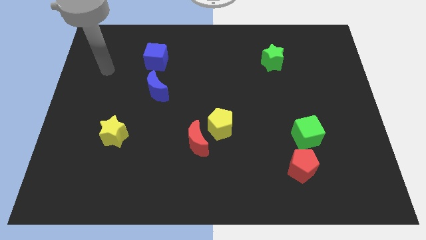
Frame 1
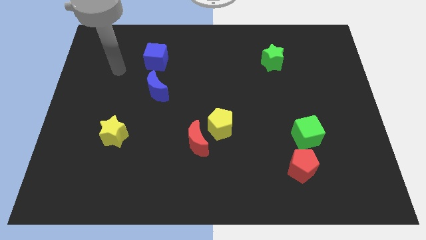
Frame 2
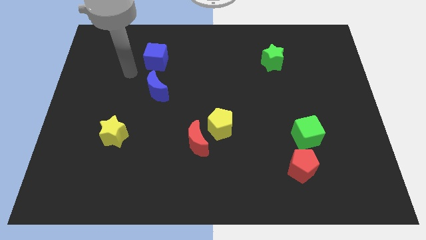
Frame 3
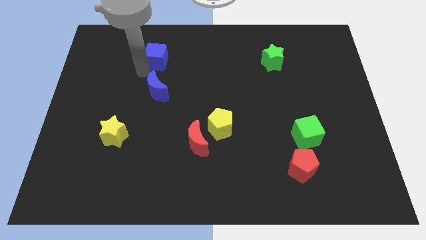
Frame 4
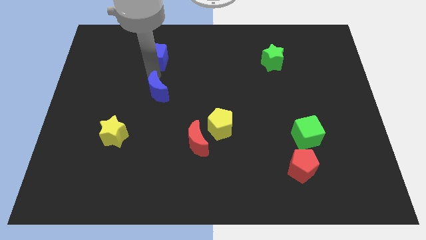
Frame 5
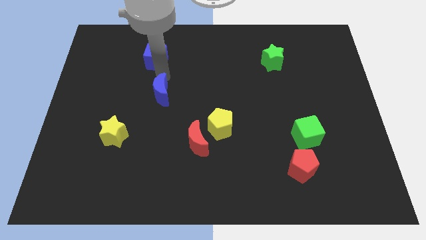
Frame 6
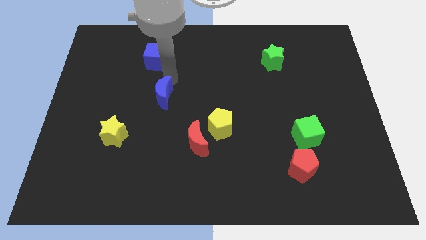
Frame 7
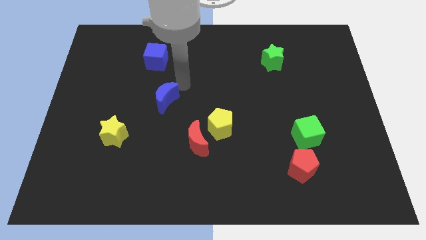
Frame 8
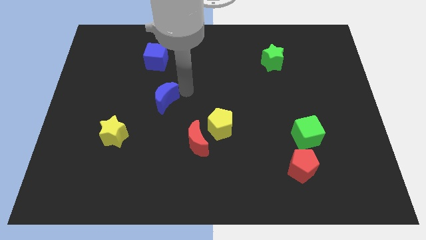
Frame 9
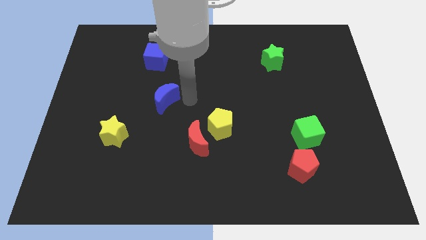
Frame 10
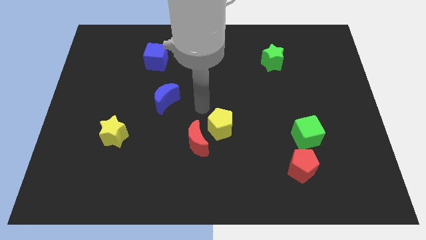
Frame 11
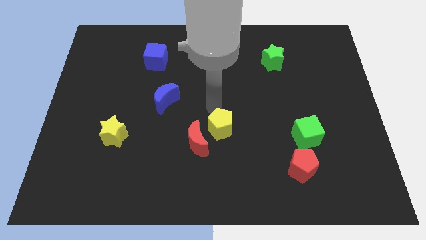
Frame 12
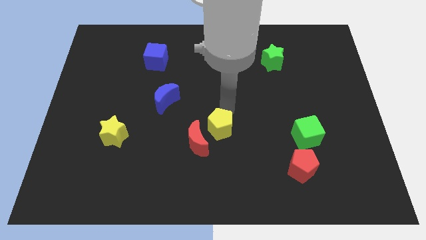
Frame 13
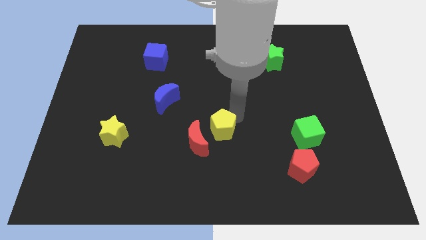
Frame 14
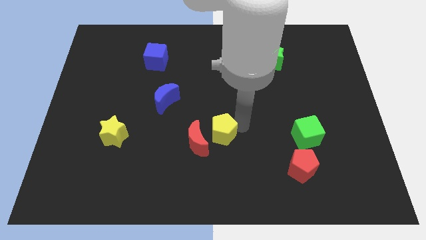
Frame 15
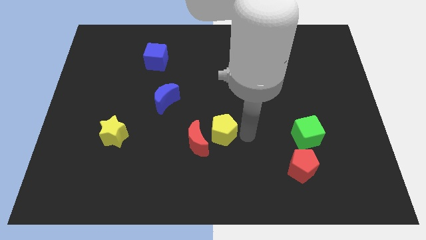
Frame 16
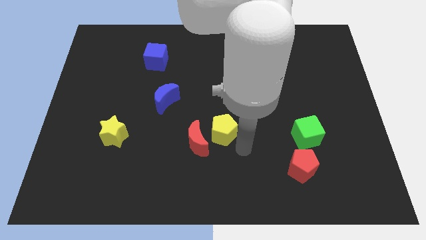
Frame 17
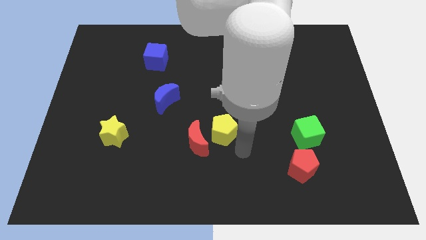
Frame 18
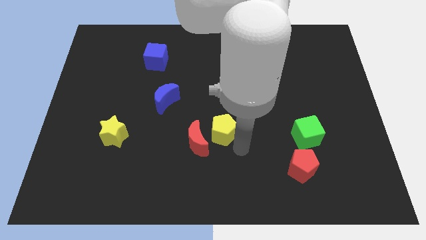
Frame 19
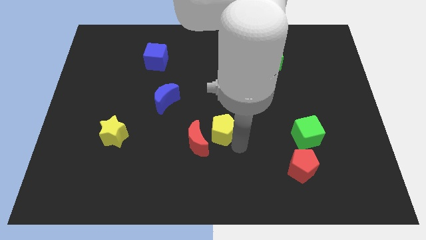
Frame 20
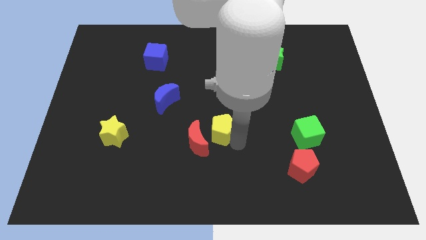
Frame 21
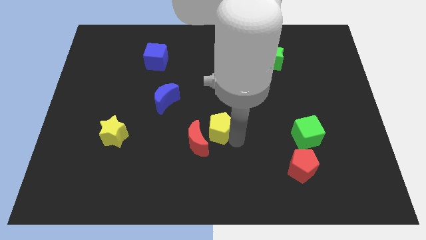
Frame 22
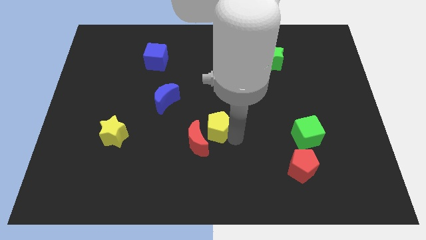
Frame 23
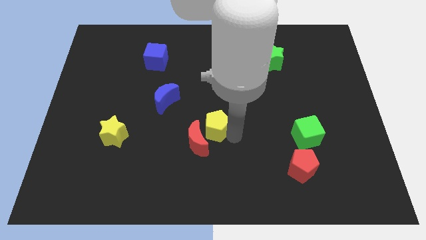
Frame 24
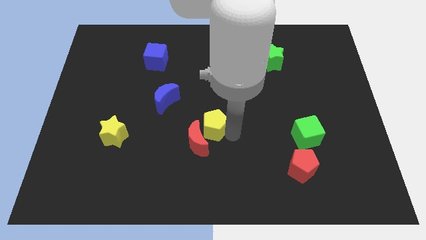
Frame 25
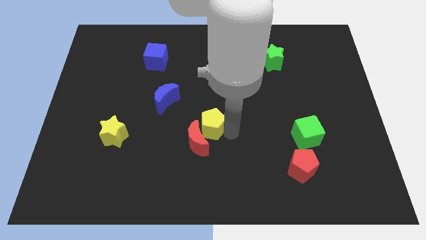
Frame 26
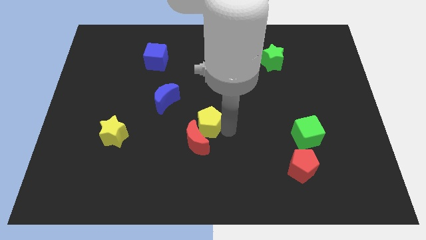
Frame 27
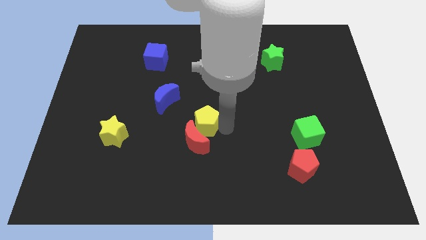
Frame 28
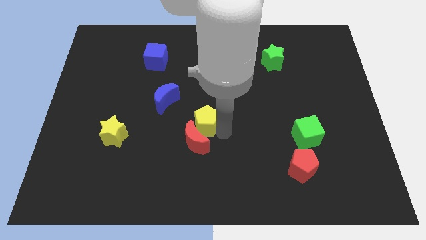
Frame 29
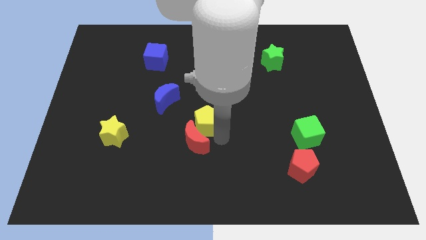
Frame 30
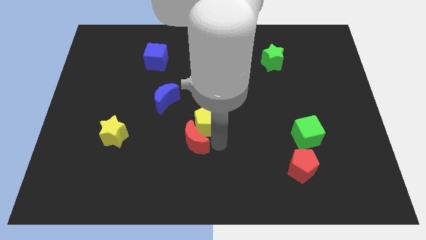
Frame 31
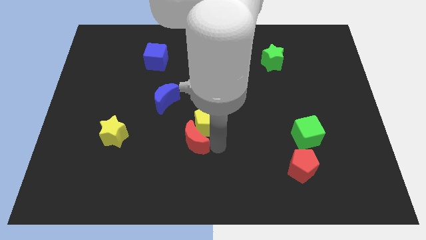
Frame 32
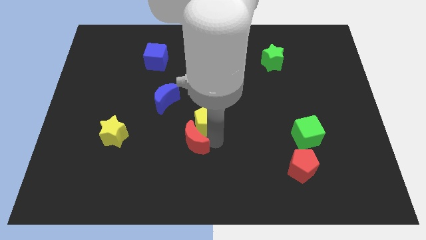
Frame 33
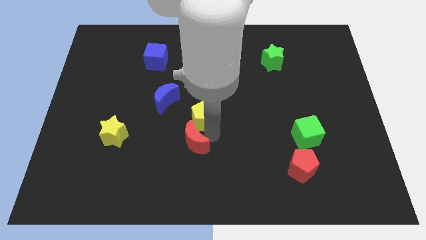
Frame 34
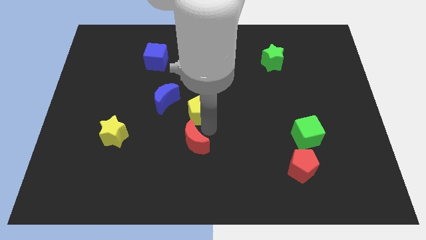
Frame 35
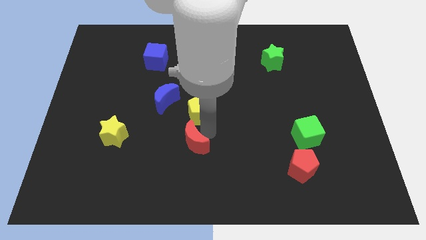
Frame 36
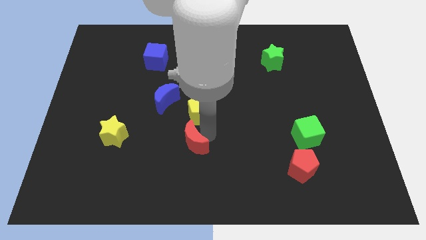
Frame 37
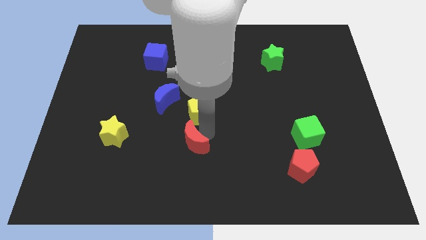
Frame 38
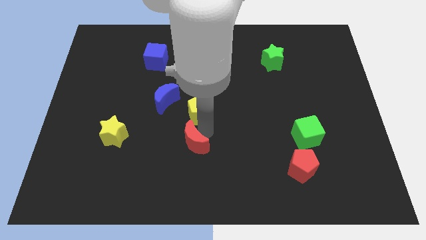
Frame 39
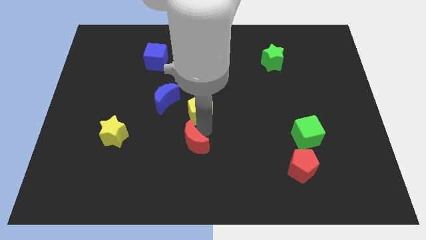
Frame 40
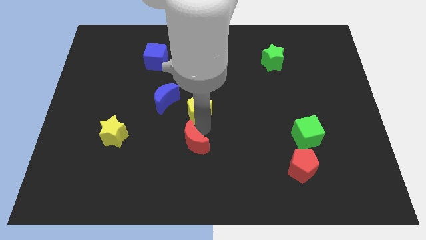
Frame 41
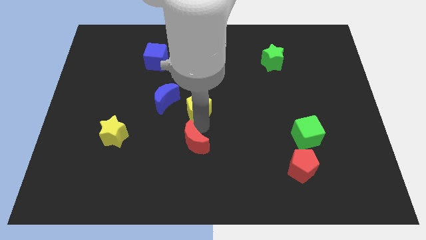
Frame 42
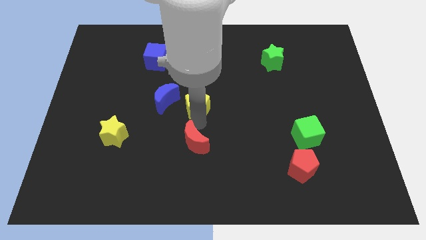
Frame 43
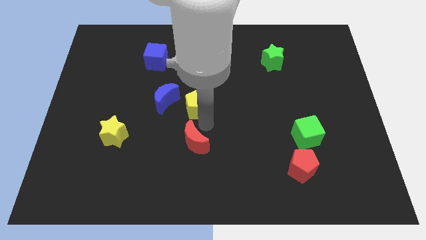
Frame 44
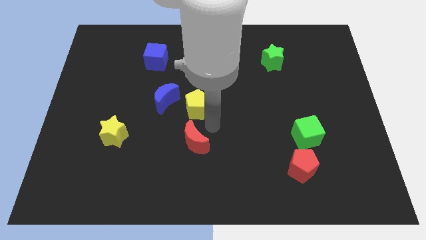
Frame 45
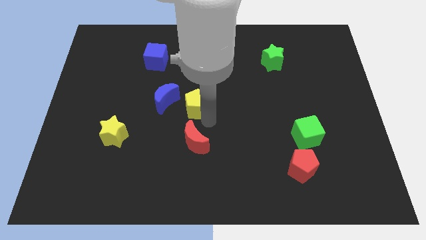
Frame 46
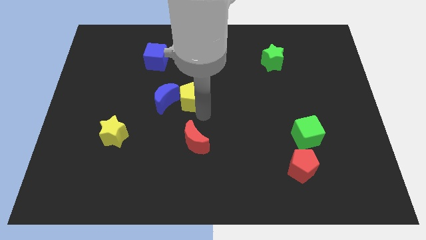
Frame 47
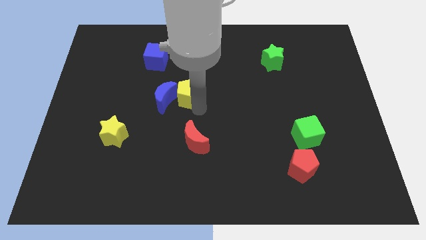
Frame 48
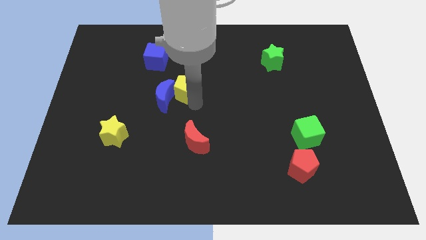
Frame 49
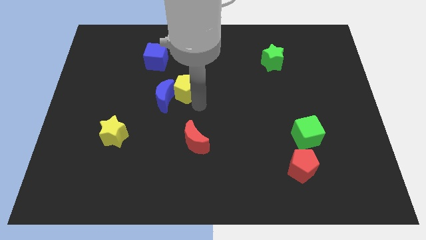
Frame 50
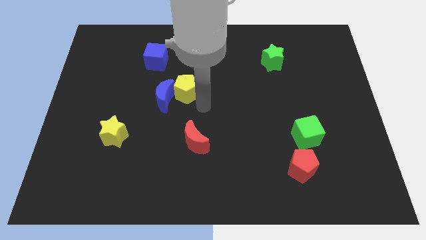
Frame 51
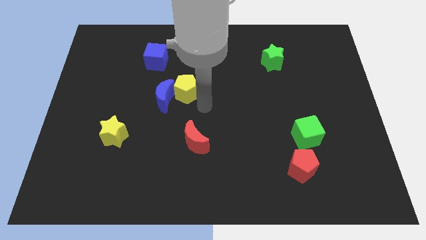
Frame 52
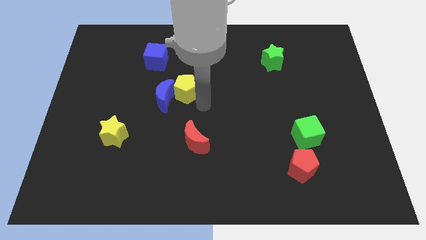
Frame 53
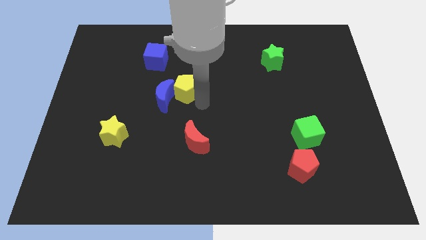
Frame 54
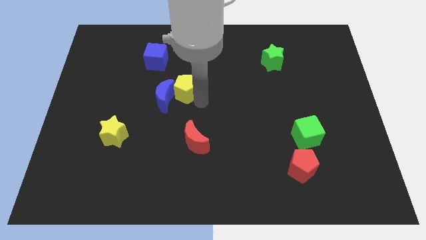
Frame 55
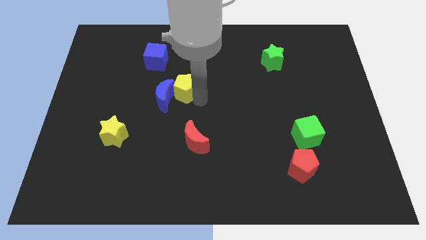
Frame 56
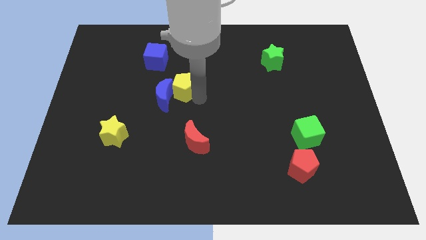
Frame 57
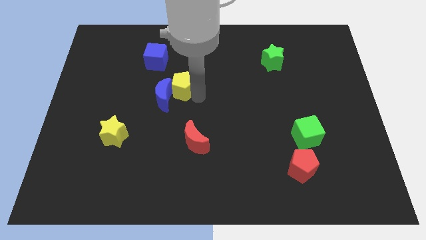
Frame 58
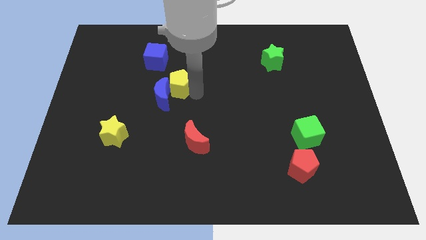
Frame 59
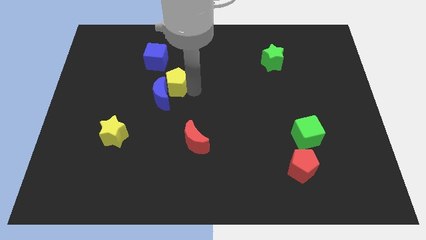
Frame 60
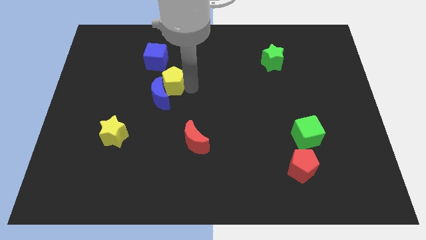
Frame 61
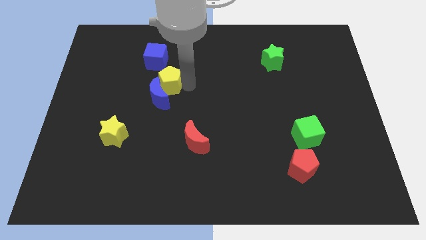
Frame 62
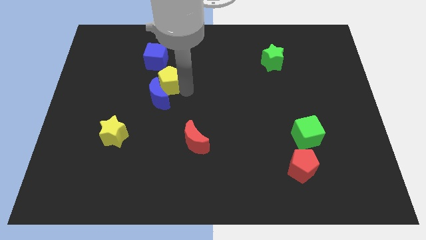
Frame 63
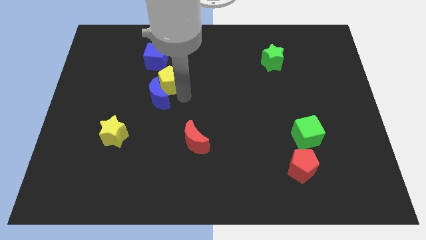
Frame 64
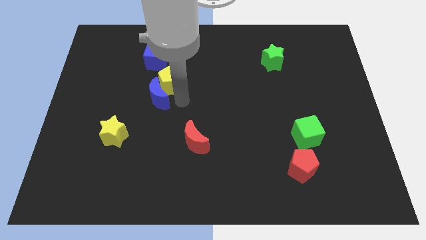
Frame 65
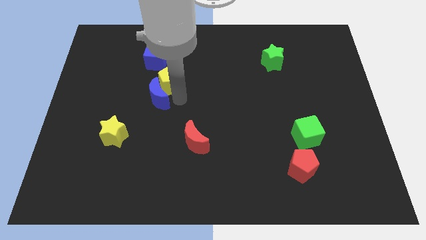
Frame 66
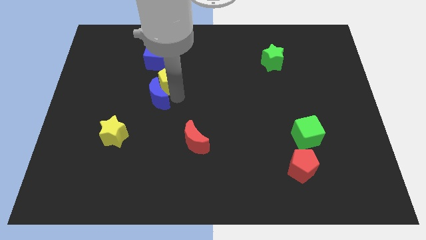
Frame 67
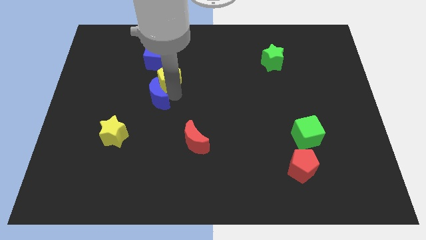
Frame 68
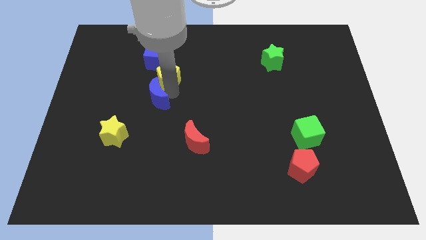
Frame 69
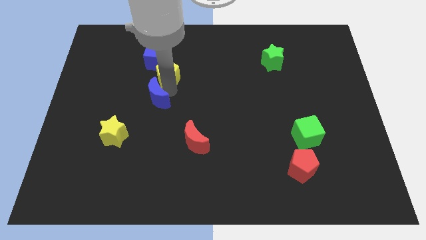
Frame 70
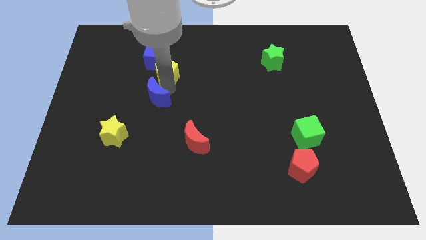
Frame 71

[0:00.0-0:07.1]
put the yellow pentagon close to the blue cube

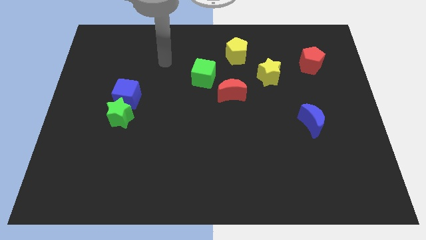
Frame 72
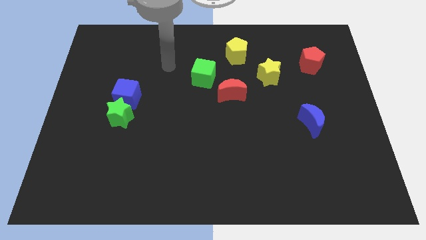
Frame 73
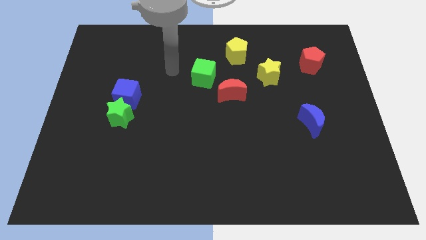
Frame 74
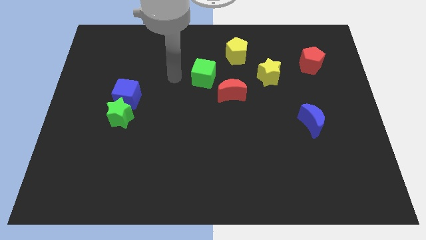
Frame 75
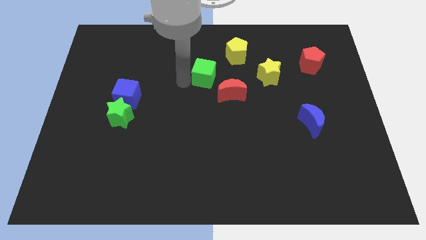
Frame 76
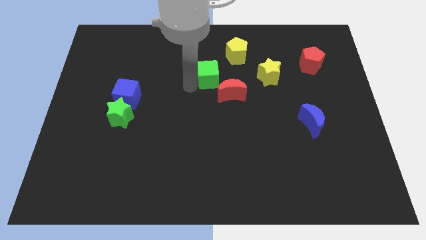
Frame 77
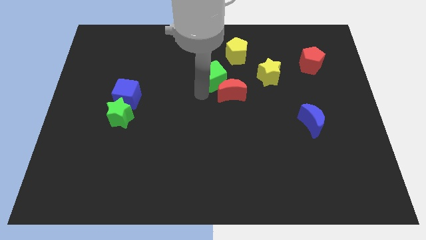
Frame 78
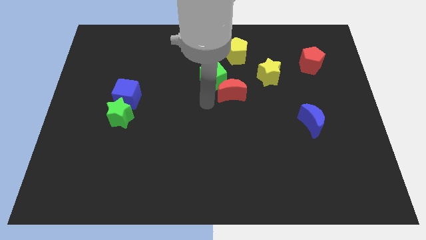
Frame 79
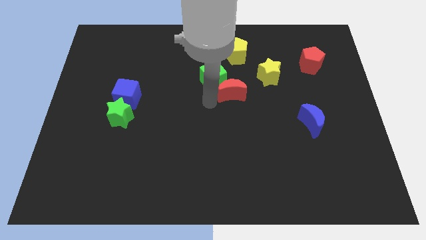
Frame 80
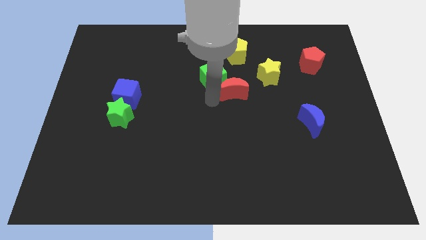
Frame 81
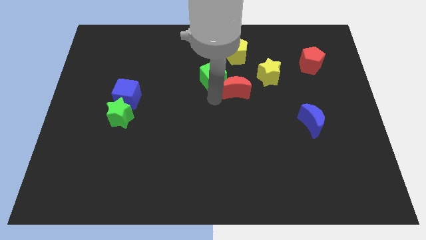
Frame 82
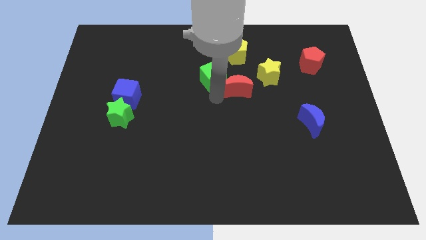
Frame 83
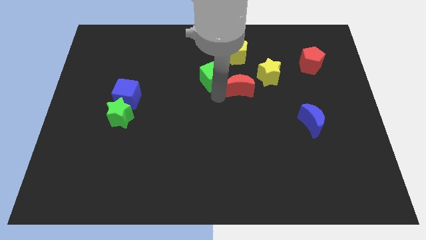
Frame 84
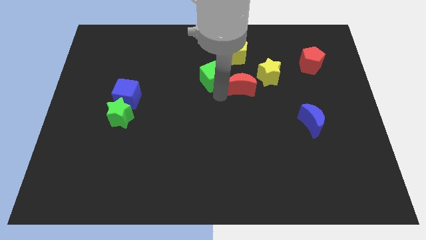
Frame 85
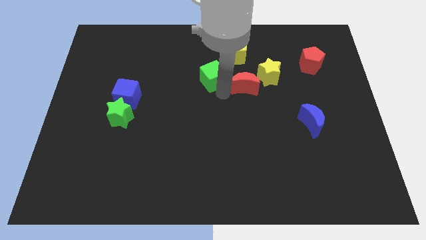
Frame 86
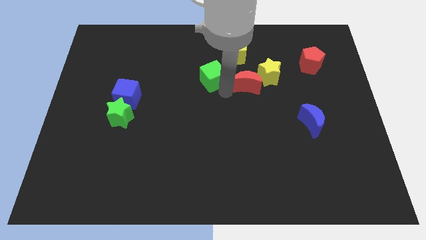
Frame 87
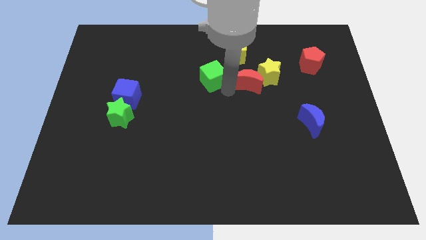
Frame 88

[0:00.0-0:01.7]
move the red moon close to the yellow star
